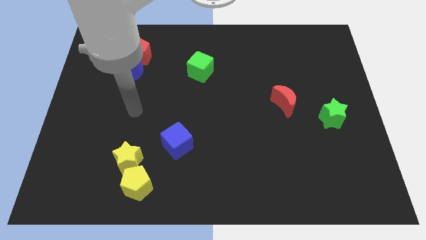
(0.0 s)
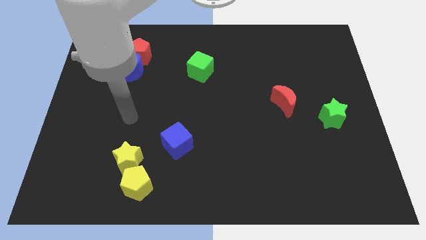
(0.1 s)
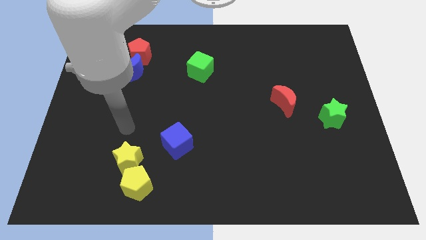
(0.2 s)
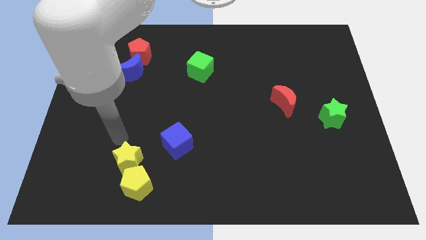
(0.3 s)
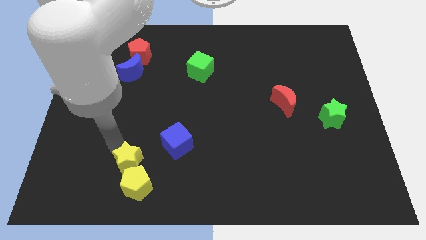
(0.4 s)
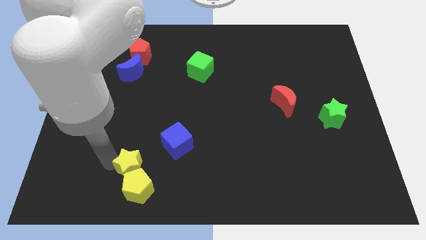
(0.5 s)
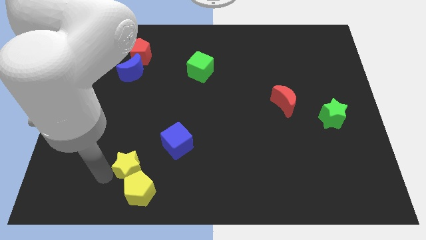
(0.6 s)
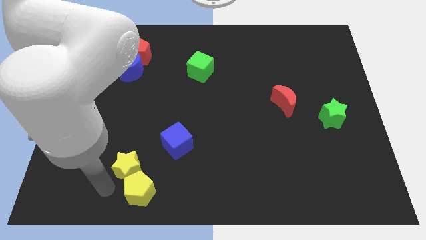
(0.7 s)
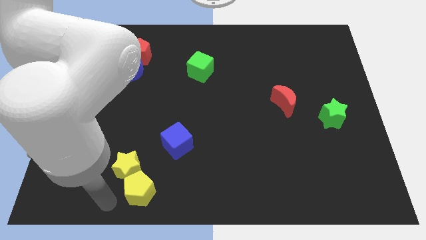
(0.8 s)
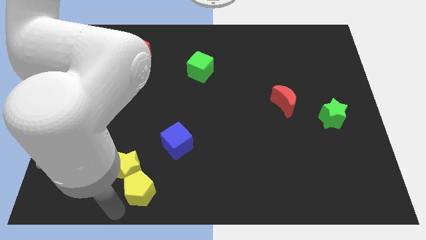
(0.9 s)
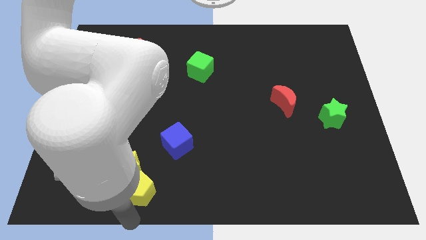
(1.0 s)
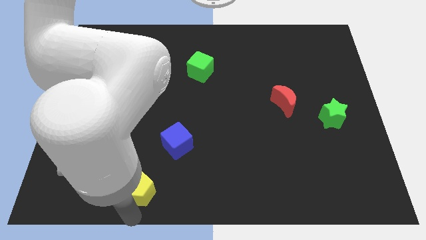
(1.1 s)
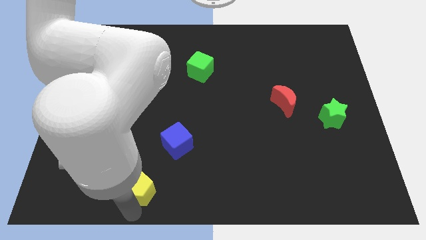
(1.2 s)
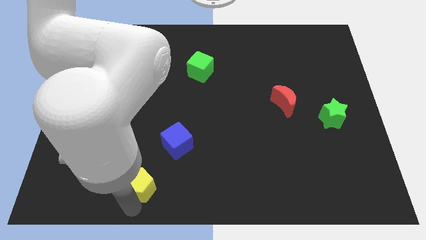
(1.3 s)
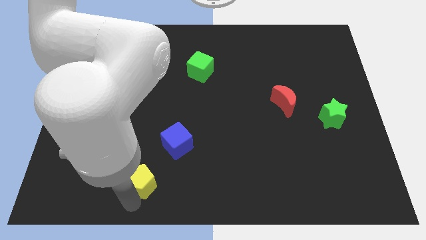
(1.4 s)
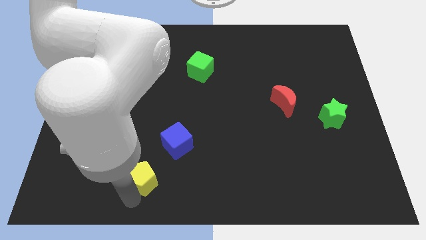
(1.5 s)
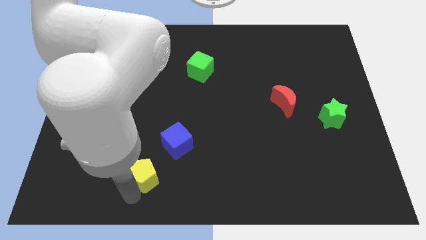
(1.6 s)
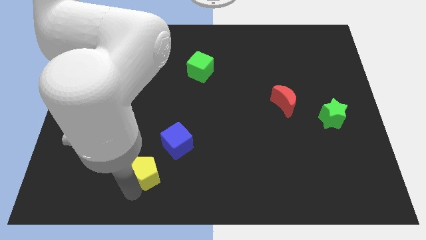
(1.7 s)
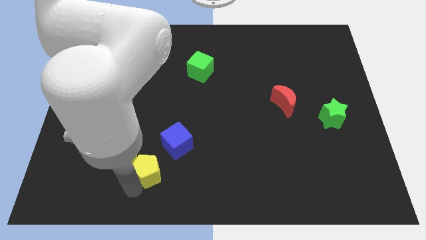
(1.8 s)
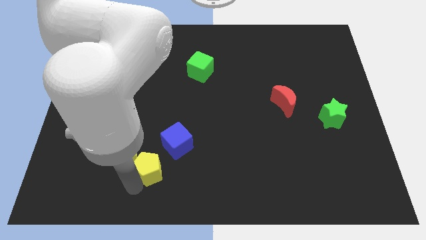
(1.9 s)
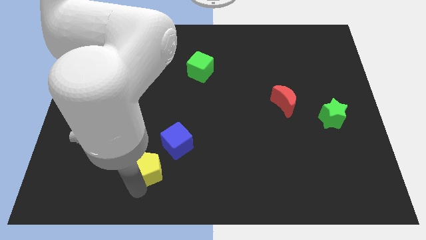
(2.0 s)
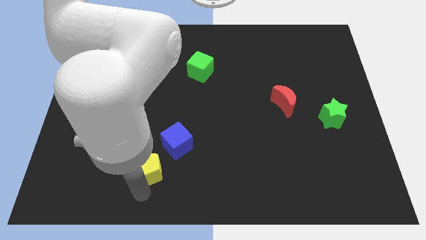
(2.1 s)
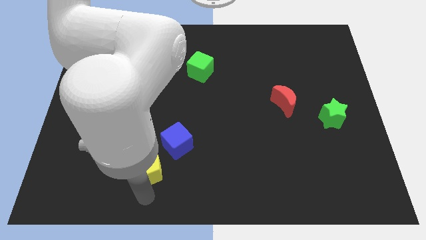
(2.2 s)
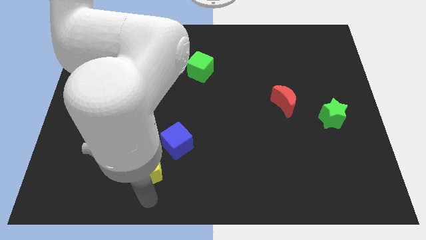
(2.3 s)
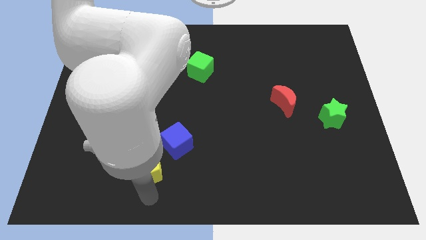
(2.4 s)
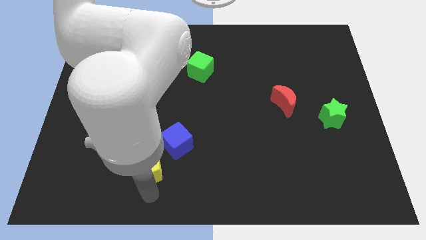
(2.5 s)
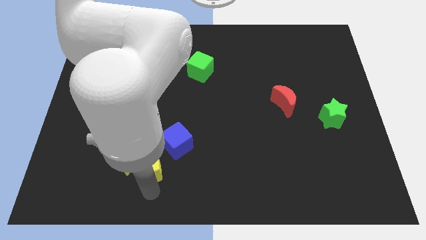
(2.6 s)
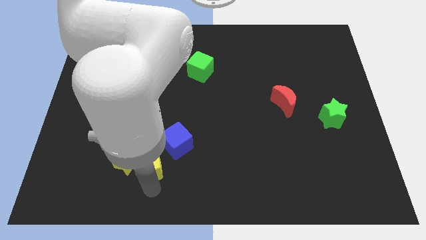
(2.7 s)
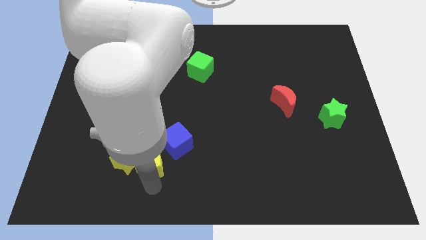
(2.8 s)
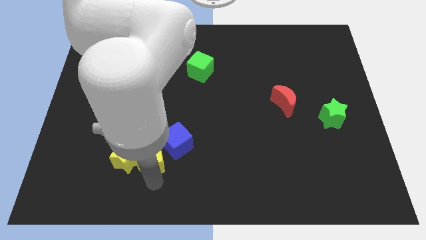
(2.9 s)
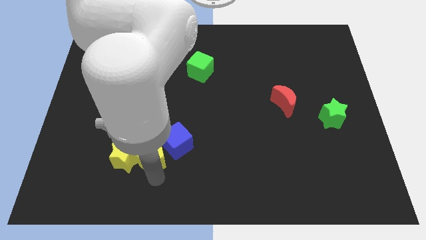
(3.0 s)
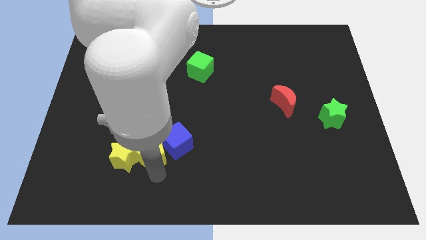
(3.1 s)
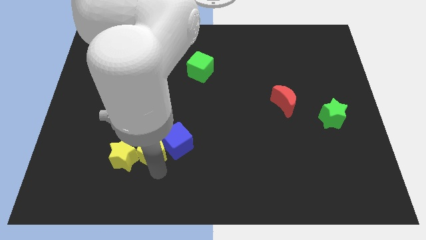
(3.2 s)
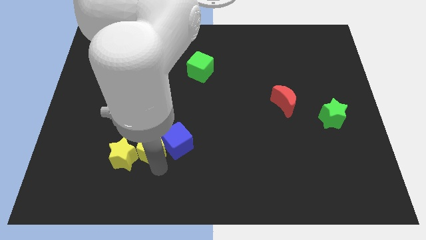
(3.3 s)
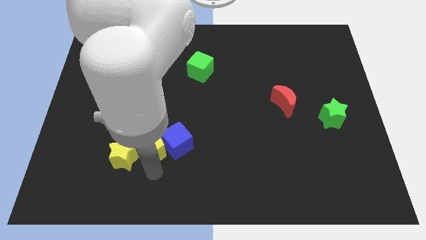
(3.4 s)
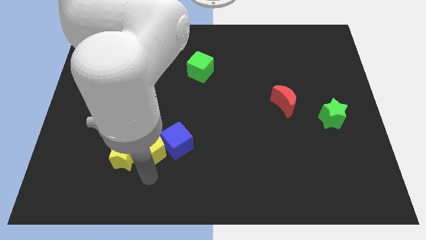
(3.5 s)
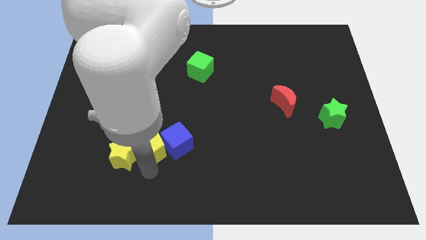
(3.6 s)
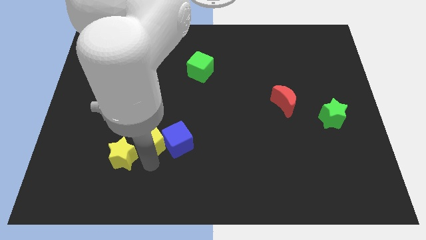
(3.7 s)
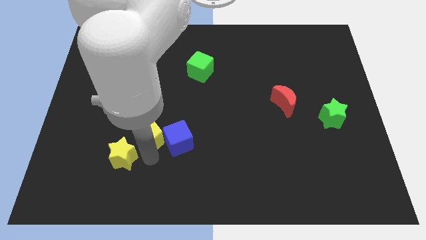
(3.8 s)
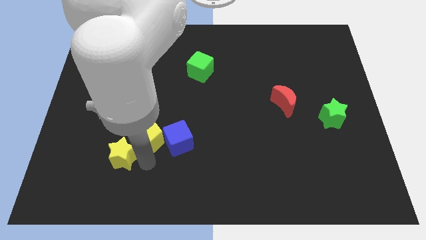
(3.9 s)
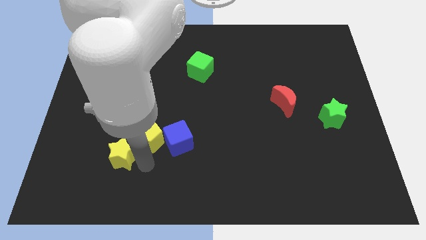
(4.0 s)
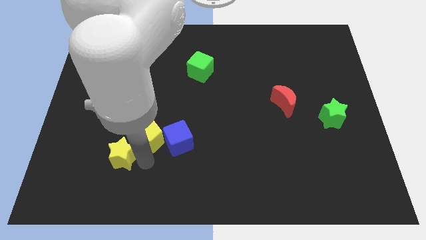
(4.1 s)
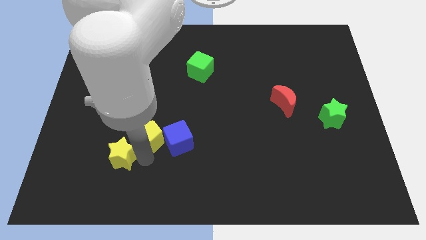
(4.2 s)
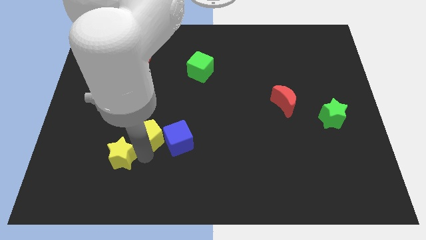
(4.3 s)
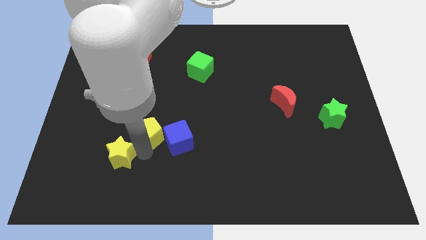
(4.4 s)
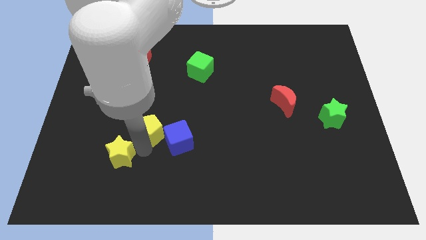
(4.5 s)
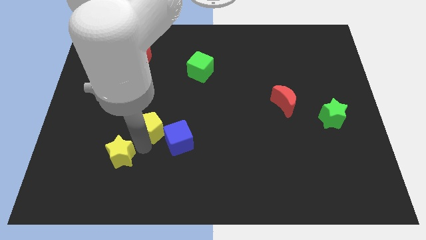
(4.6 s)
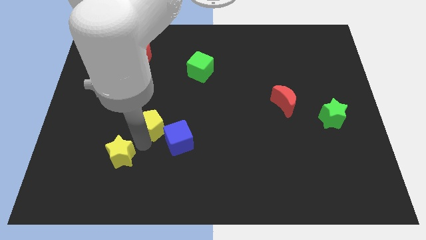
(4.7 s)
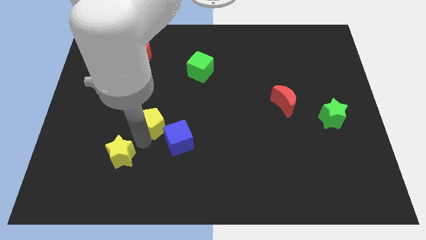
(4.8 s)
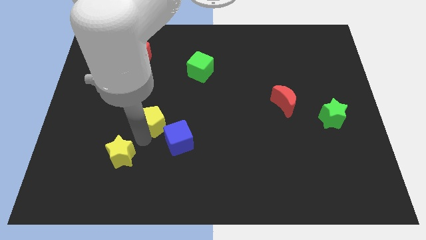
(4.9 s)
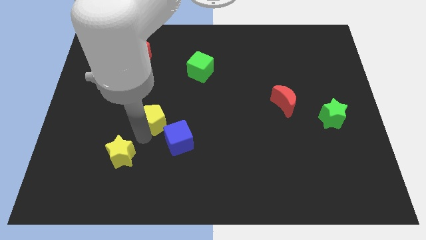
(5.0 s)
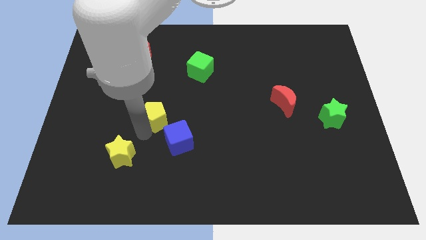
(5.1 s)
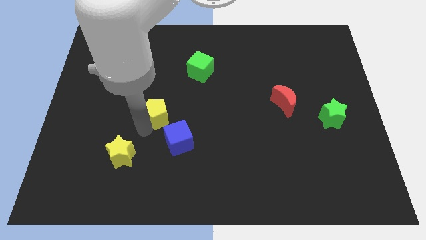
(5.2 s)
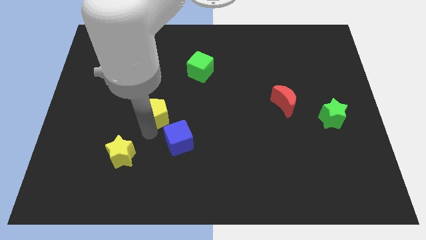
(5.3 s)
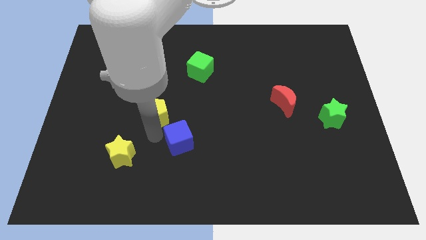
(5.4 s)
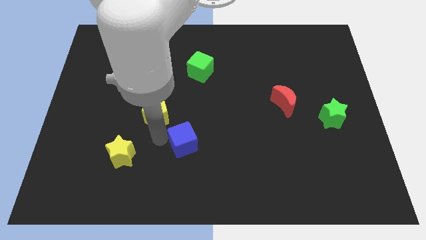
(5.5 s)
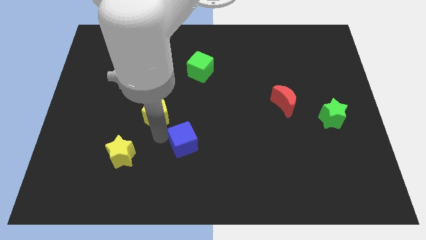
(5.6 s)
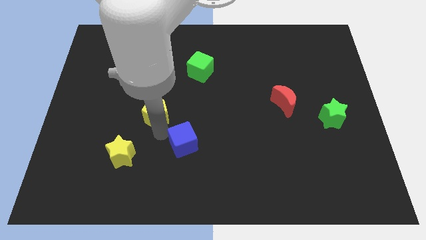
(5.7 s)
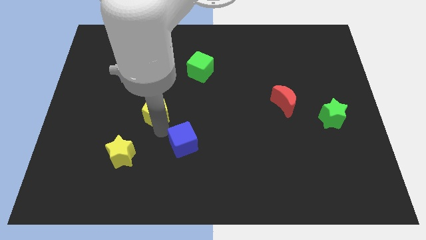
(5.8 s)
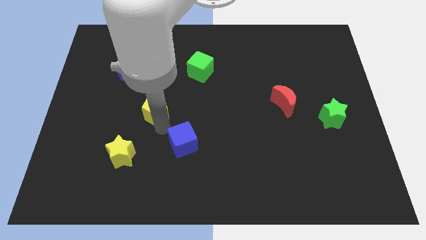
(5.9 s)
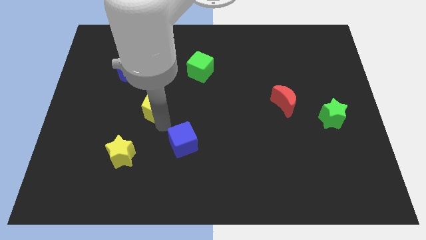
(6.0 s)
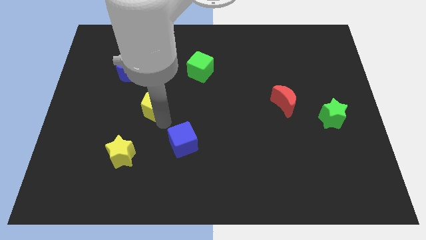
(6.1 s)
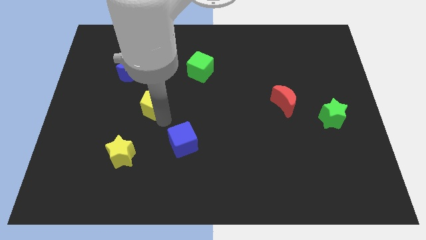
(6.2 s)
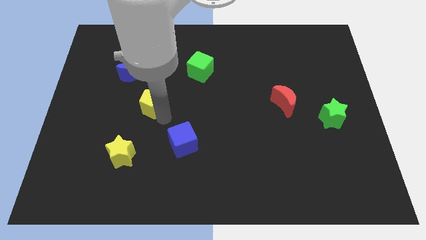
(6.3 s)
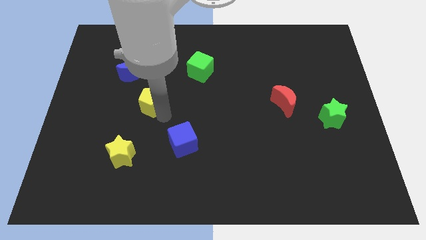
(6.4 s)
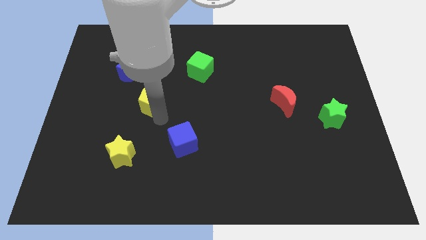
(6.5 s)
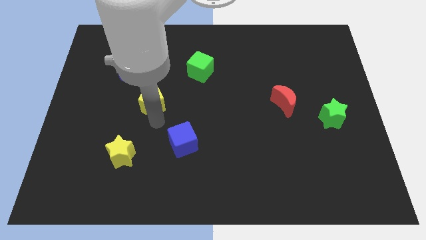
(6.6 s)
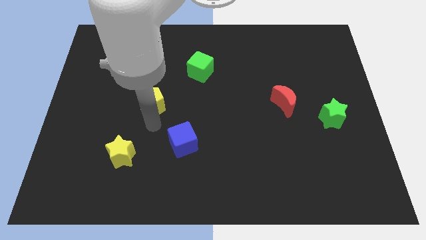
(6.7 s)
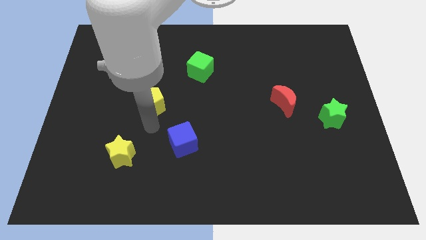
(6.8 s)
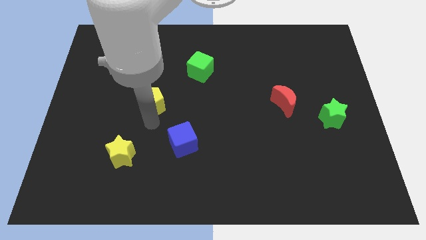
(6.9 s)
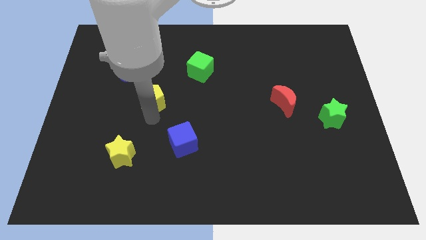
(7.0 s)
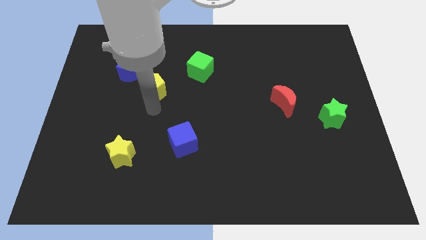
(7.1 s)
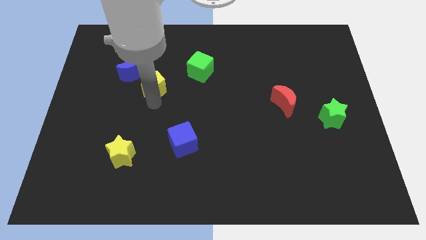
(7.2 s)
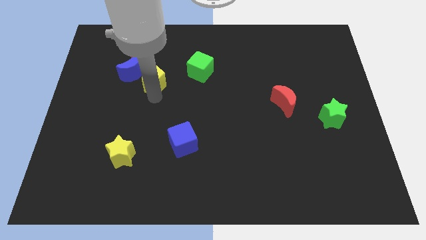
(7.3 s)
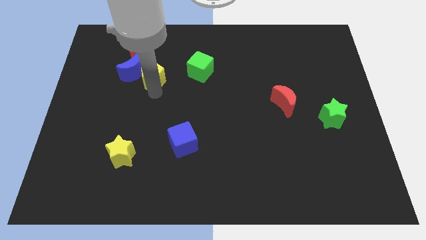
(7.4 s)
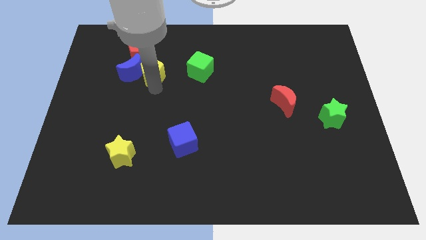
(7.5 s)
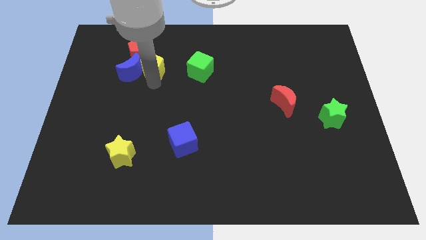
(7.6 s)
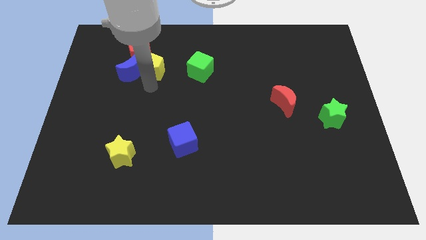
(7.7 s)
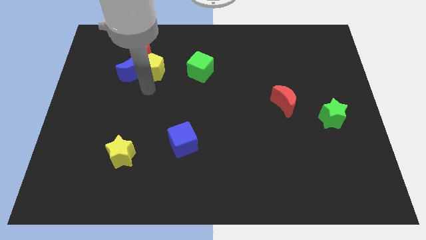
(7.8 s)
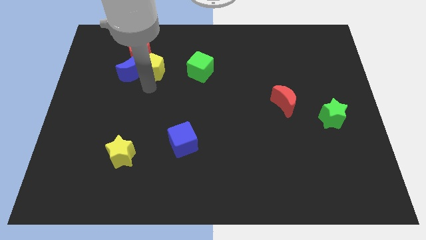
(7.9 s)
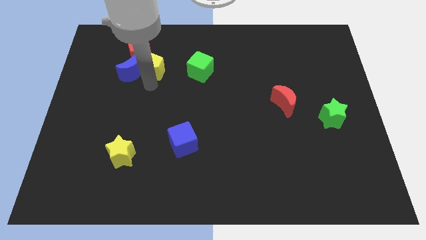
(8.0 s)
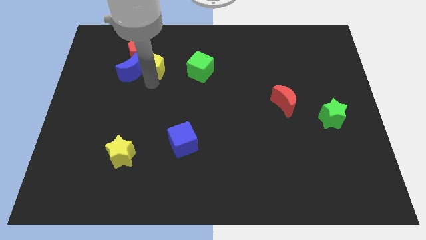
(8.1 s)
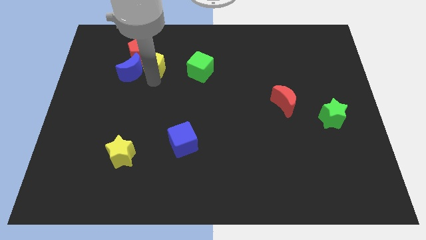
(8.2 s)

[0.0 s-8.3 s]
slide the yellow pentagon close to the red pentagon
